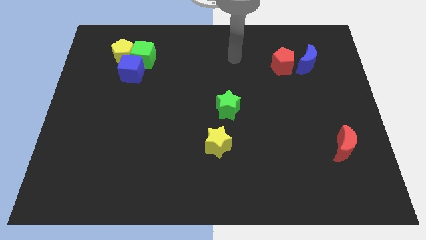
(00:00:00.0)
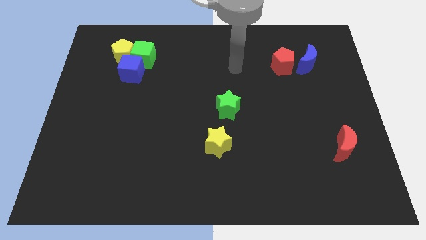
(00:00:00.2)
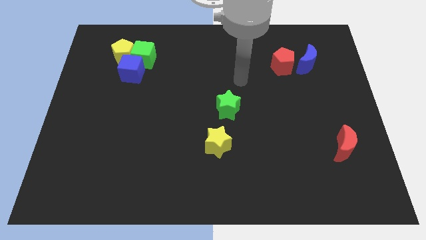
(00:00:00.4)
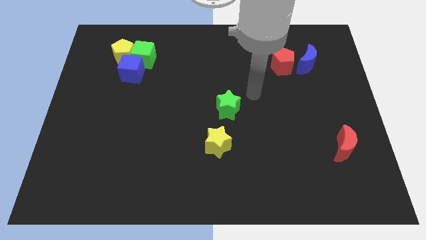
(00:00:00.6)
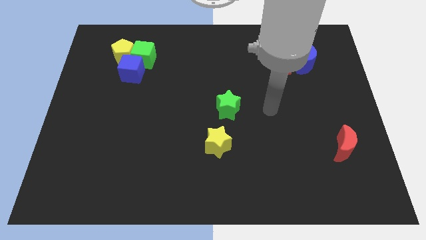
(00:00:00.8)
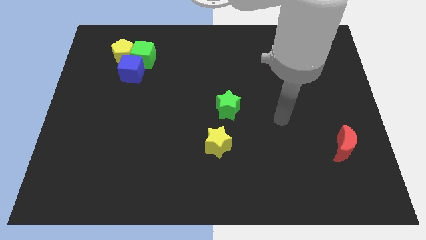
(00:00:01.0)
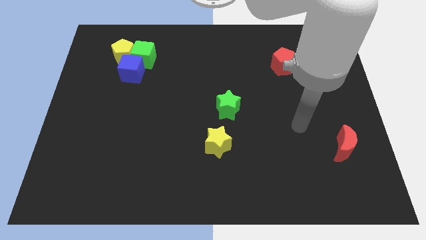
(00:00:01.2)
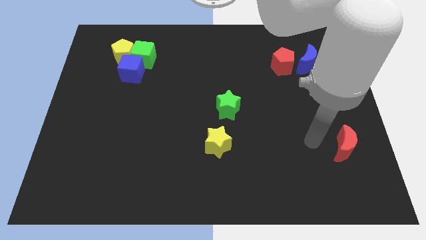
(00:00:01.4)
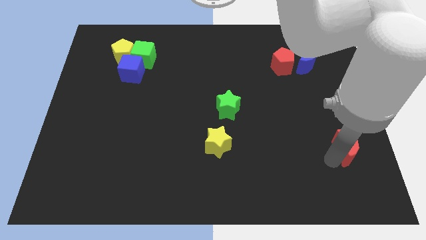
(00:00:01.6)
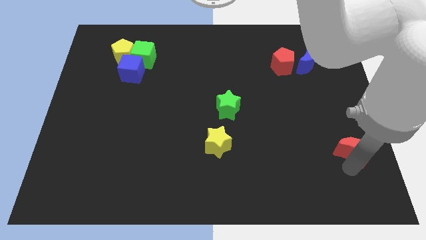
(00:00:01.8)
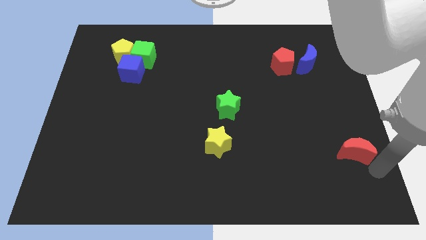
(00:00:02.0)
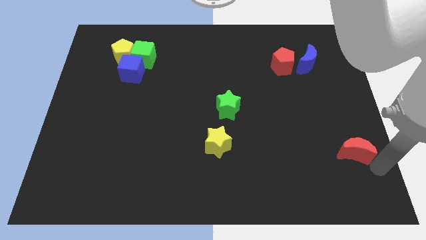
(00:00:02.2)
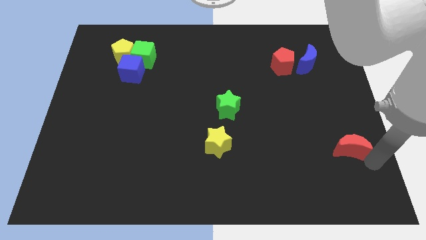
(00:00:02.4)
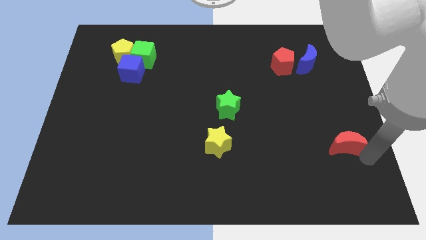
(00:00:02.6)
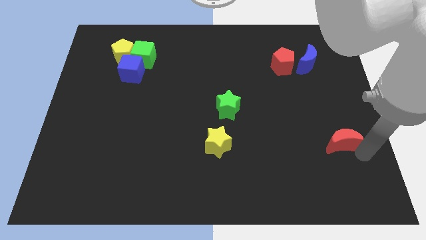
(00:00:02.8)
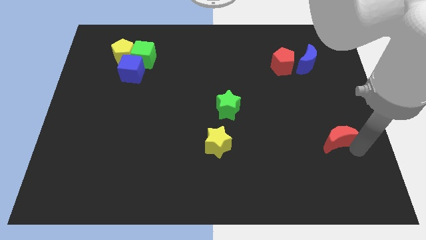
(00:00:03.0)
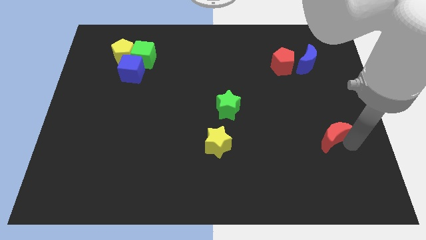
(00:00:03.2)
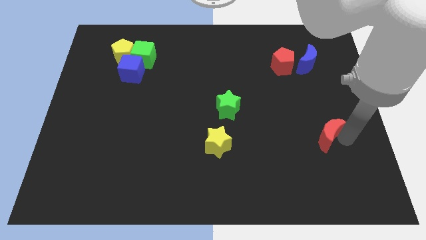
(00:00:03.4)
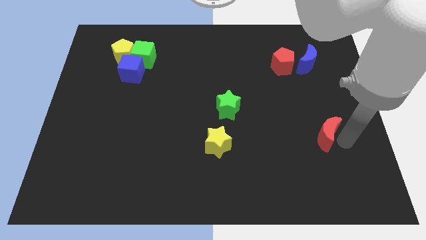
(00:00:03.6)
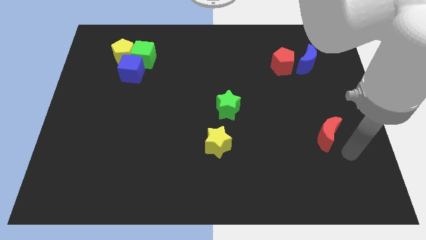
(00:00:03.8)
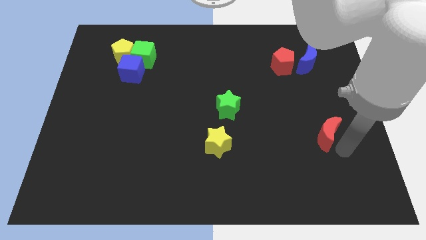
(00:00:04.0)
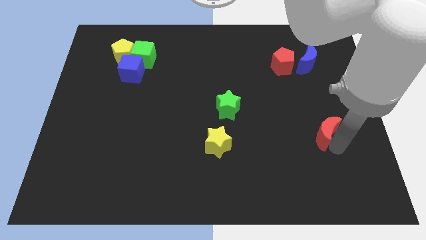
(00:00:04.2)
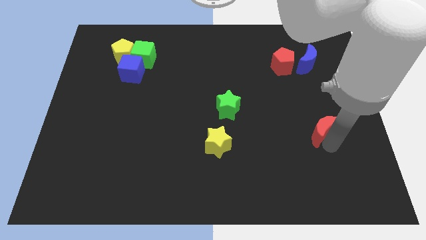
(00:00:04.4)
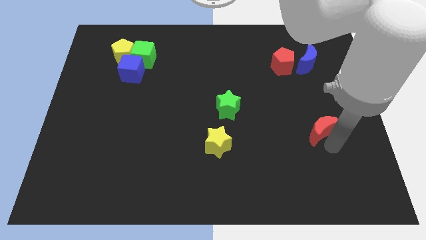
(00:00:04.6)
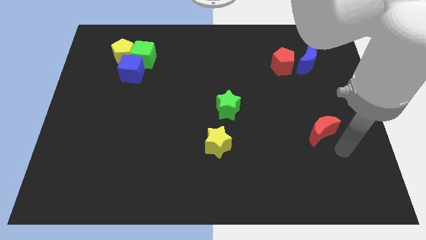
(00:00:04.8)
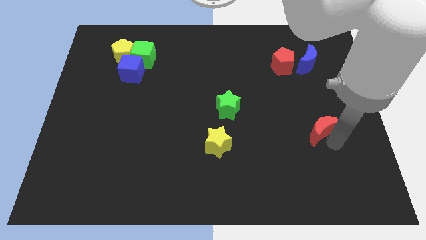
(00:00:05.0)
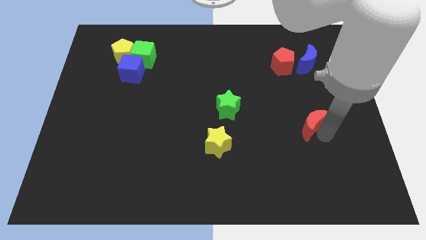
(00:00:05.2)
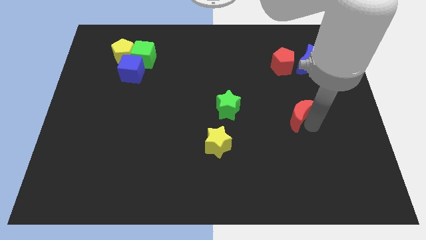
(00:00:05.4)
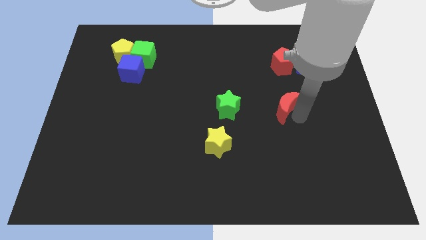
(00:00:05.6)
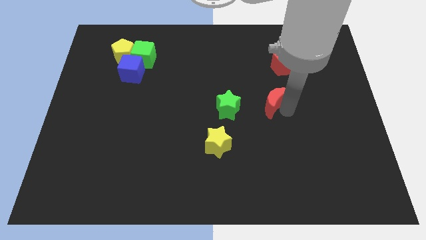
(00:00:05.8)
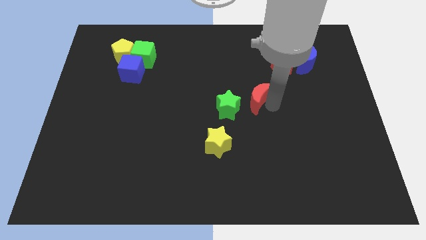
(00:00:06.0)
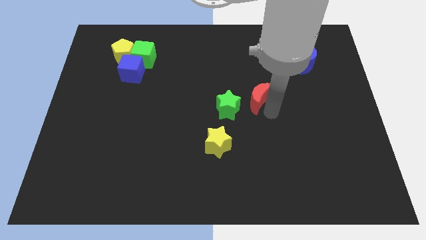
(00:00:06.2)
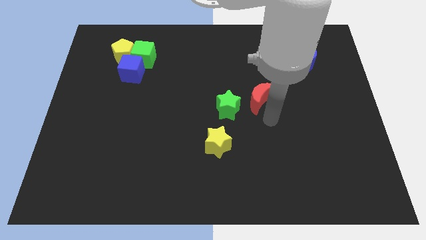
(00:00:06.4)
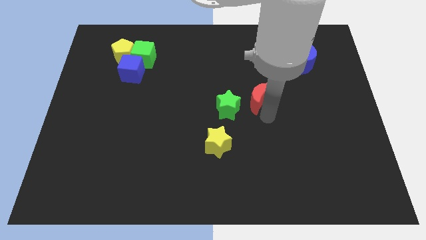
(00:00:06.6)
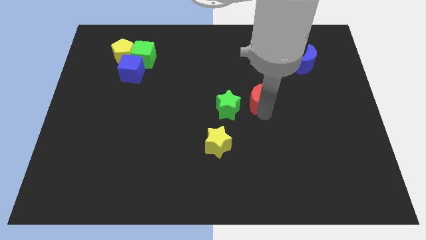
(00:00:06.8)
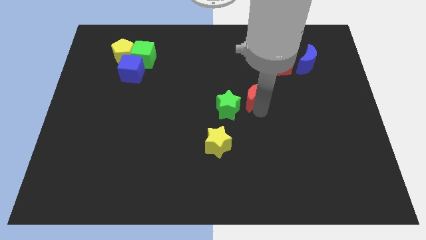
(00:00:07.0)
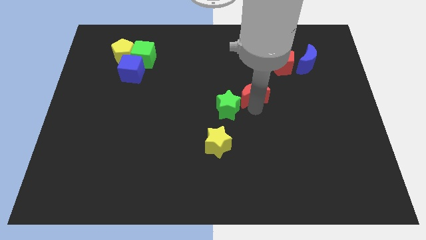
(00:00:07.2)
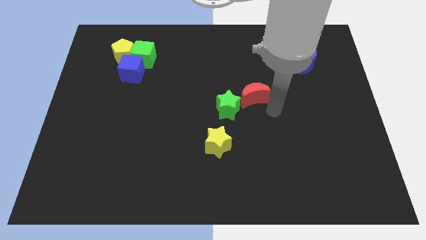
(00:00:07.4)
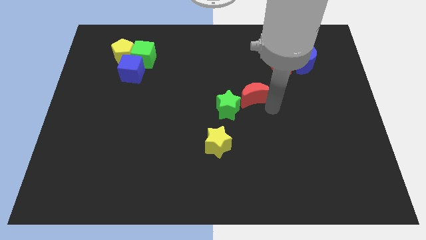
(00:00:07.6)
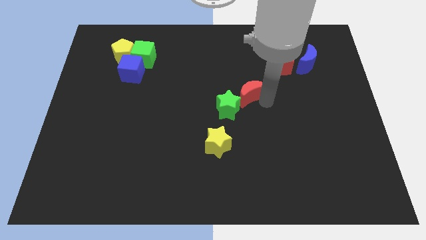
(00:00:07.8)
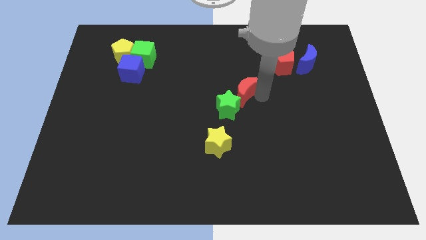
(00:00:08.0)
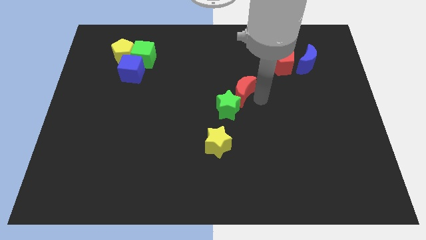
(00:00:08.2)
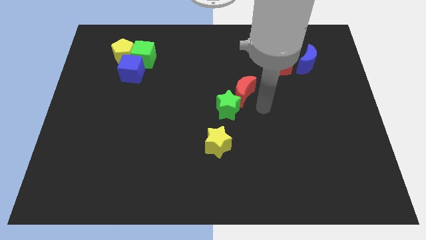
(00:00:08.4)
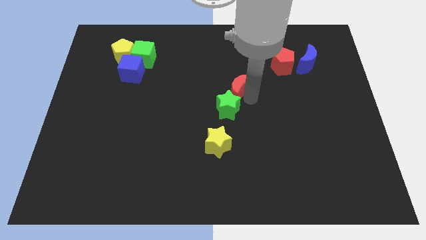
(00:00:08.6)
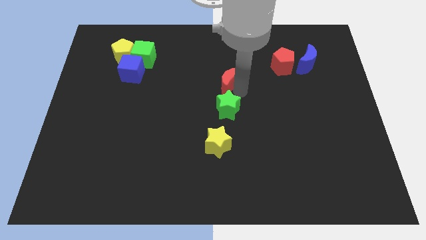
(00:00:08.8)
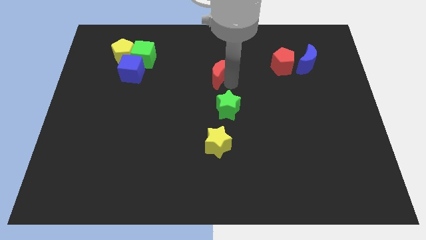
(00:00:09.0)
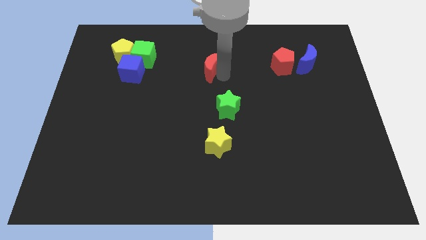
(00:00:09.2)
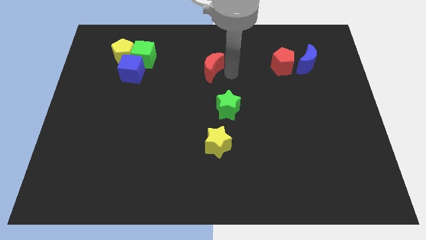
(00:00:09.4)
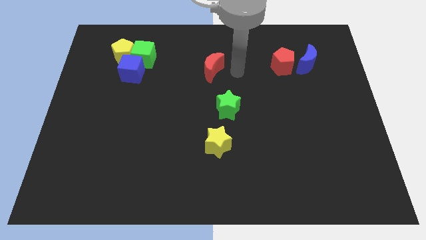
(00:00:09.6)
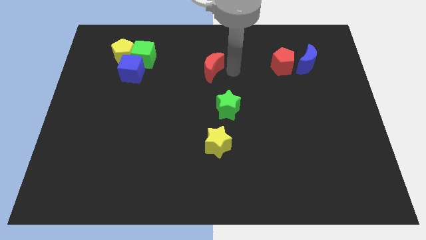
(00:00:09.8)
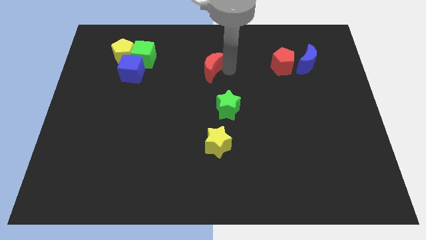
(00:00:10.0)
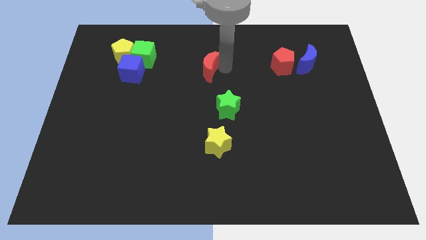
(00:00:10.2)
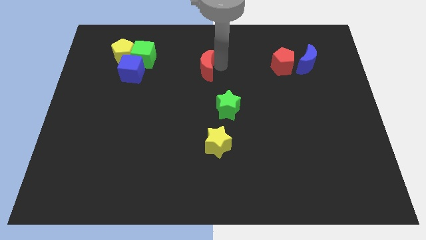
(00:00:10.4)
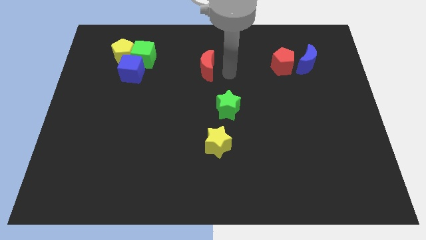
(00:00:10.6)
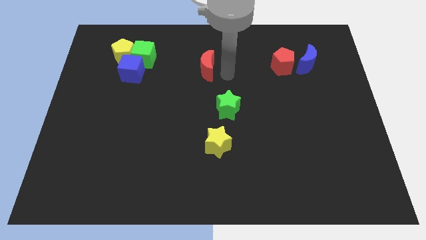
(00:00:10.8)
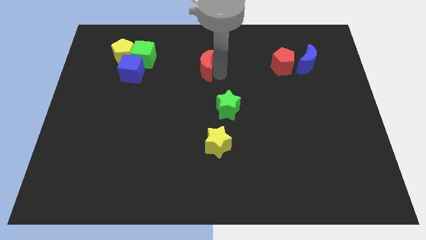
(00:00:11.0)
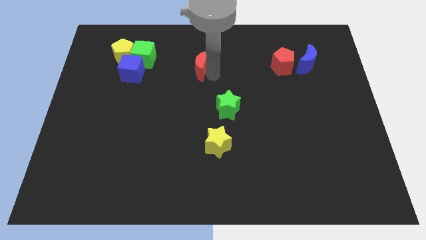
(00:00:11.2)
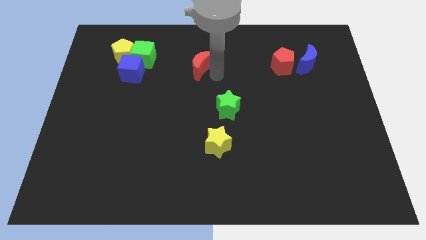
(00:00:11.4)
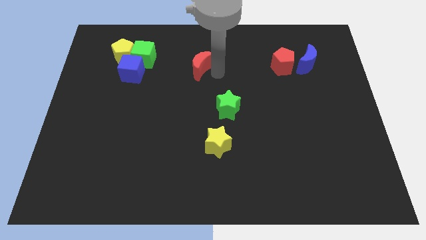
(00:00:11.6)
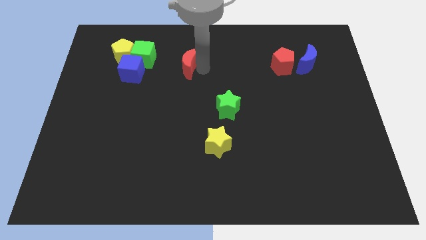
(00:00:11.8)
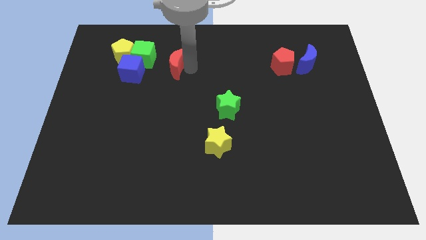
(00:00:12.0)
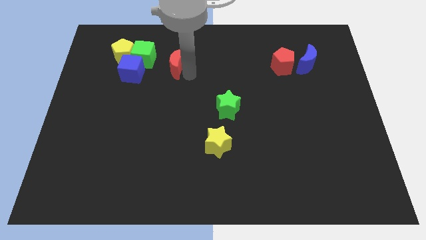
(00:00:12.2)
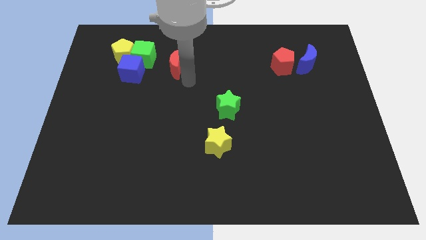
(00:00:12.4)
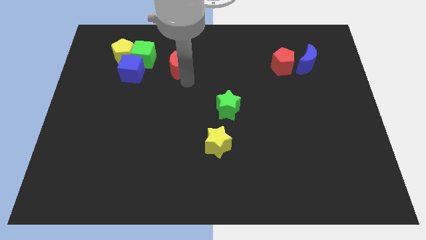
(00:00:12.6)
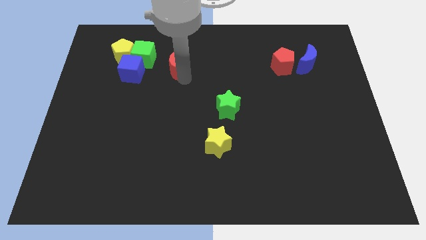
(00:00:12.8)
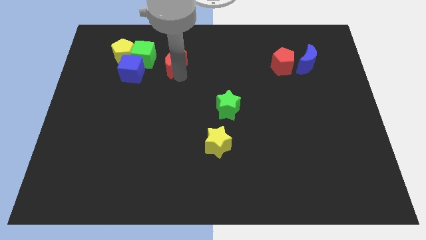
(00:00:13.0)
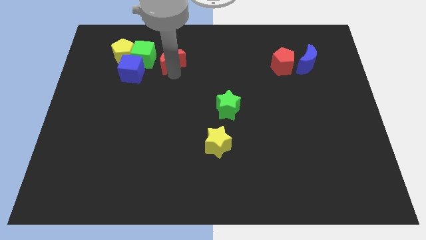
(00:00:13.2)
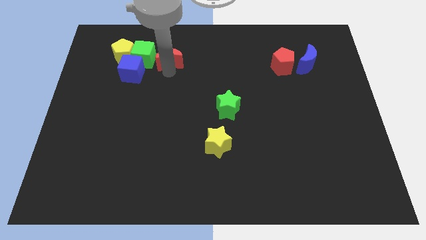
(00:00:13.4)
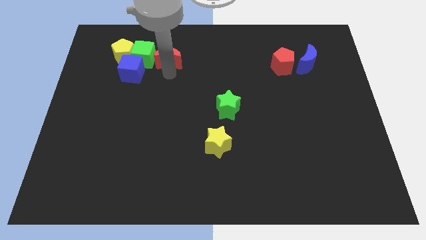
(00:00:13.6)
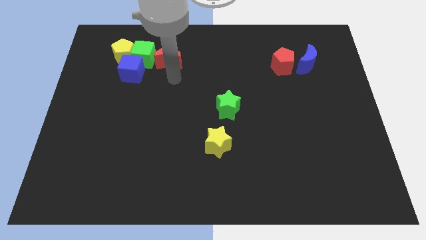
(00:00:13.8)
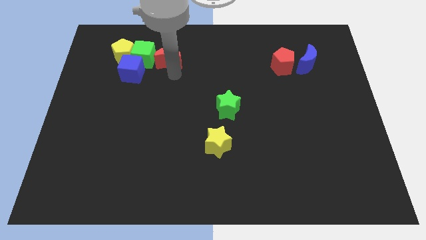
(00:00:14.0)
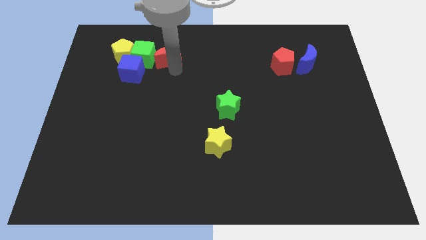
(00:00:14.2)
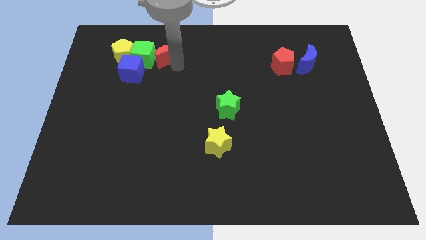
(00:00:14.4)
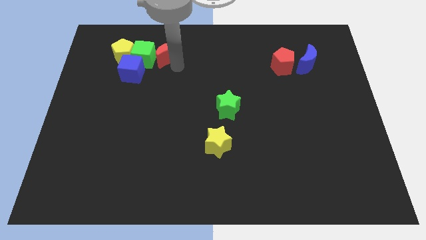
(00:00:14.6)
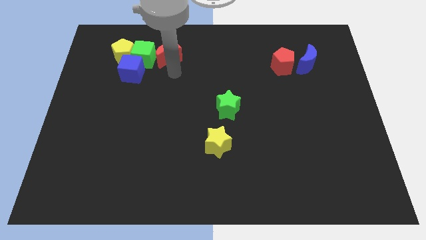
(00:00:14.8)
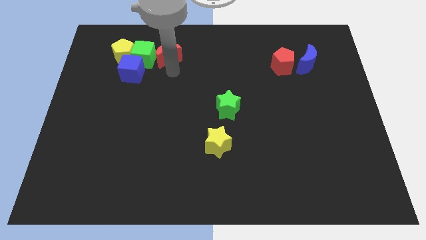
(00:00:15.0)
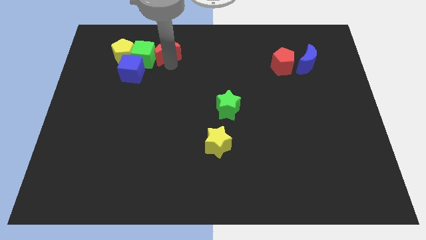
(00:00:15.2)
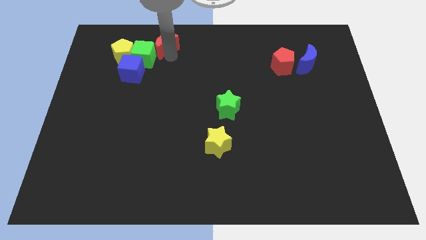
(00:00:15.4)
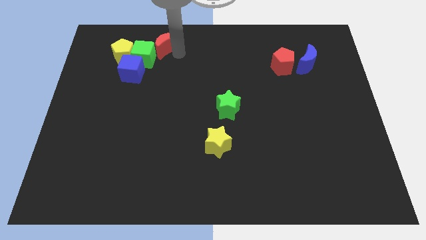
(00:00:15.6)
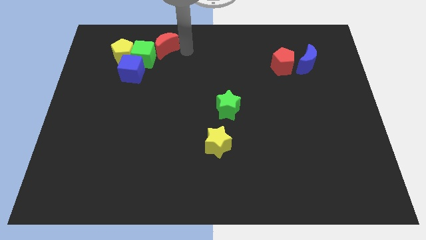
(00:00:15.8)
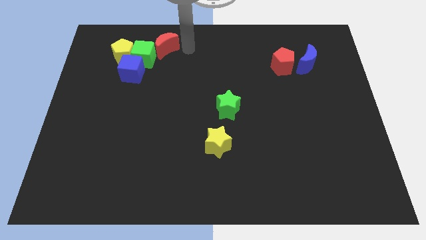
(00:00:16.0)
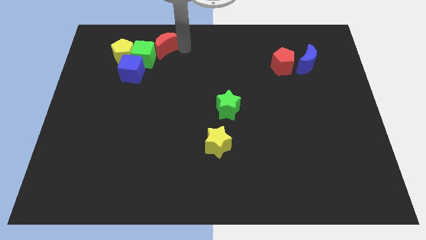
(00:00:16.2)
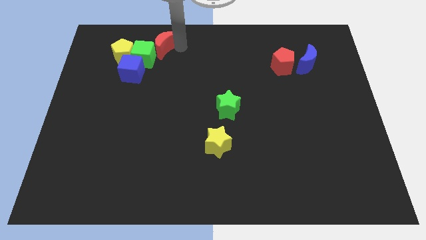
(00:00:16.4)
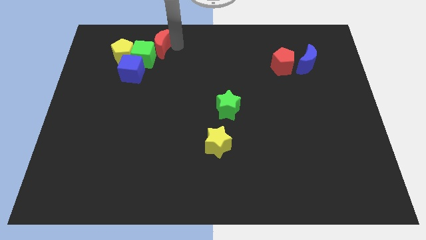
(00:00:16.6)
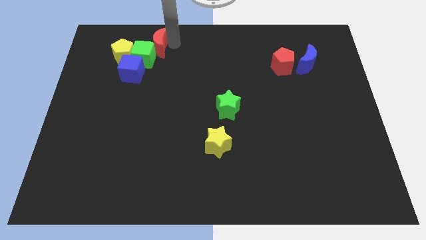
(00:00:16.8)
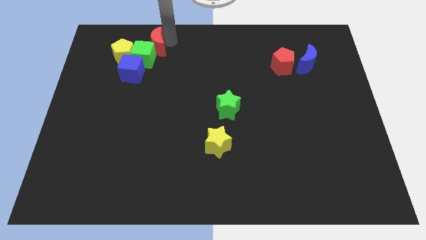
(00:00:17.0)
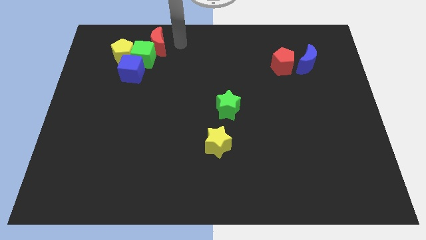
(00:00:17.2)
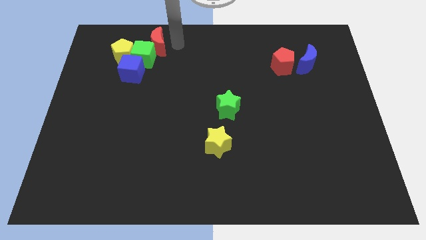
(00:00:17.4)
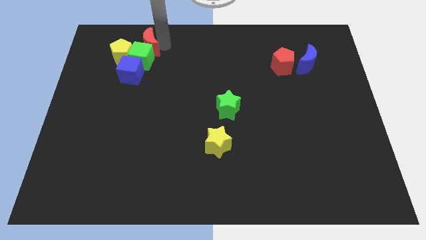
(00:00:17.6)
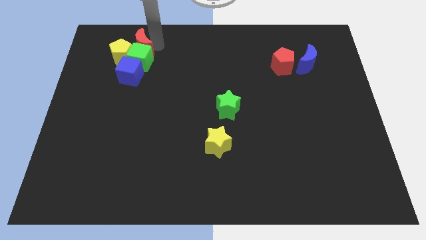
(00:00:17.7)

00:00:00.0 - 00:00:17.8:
slide the red moon towards the yellow pentagon
